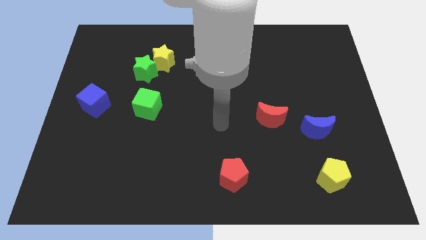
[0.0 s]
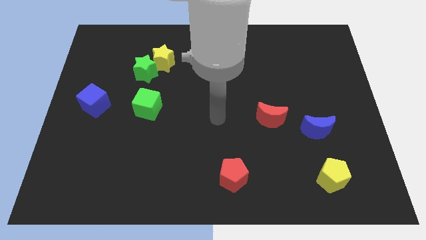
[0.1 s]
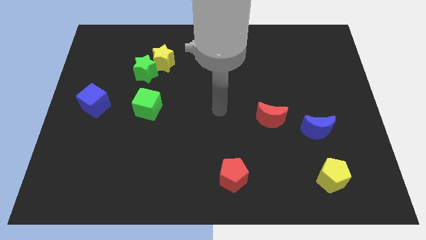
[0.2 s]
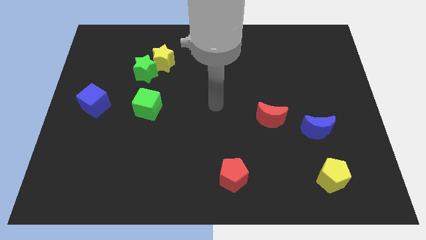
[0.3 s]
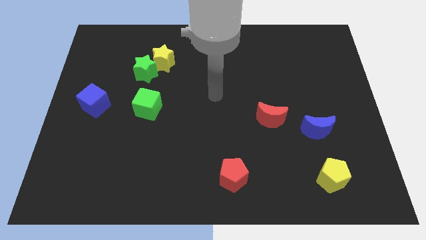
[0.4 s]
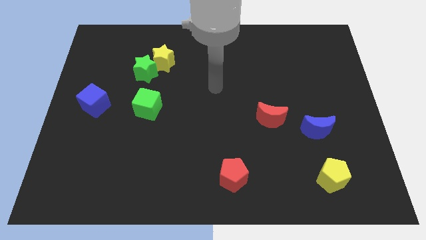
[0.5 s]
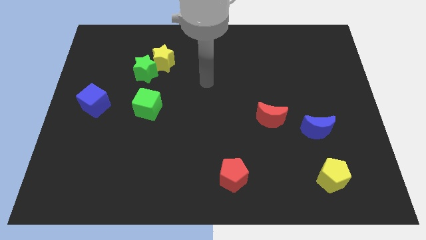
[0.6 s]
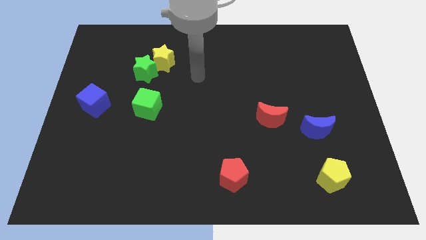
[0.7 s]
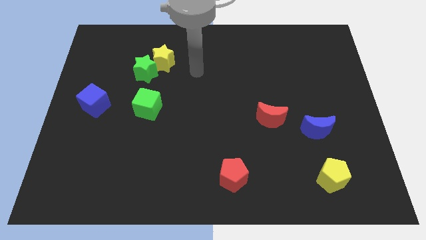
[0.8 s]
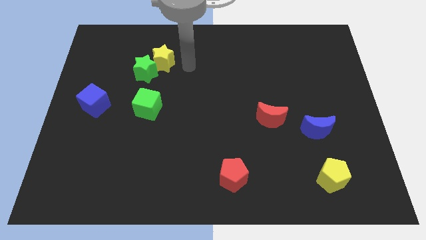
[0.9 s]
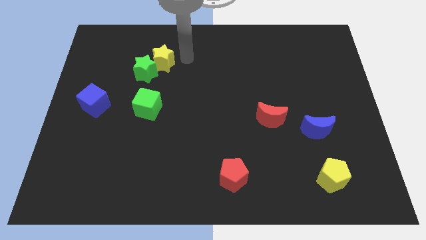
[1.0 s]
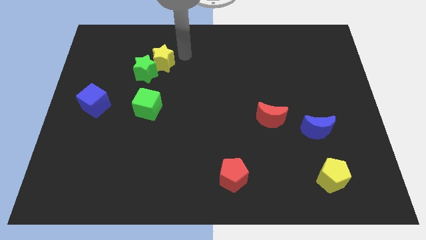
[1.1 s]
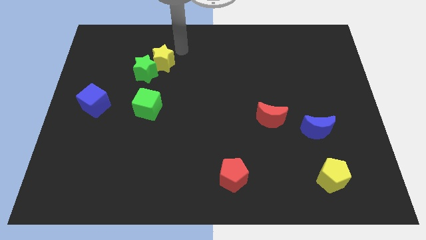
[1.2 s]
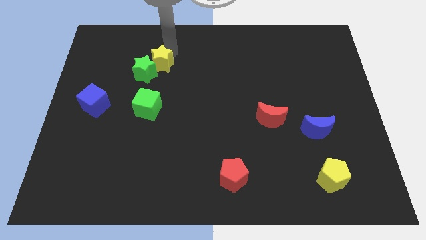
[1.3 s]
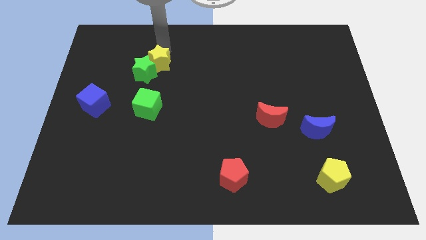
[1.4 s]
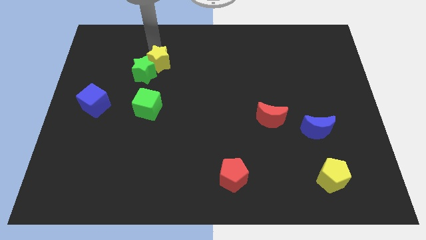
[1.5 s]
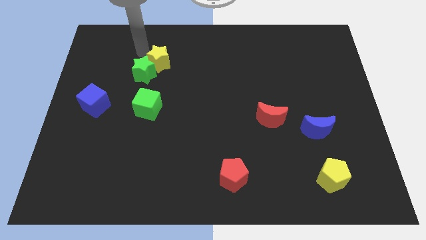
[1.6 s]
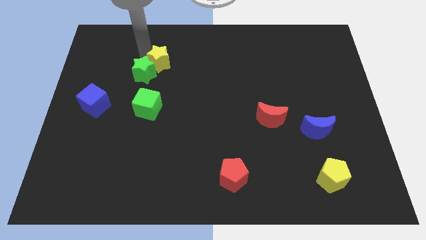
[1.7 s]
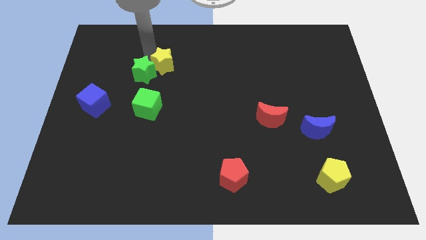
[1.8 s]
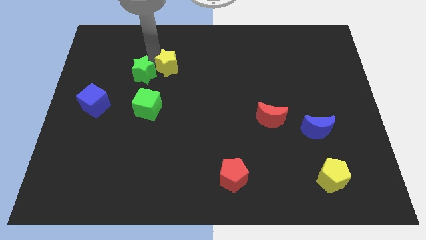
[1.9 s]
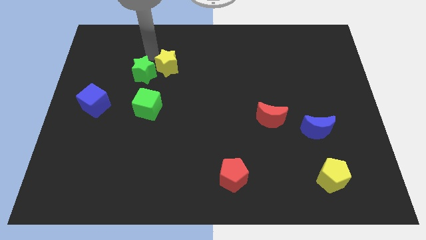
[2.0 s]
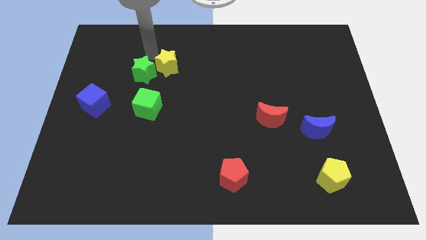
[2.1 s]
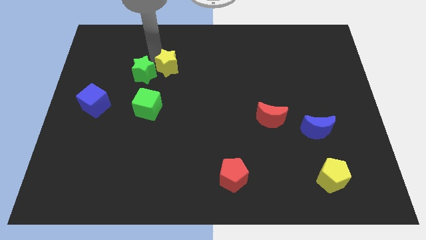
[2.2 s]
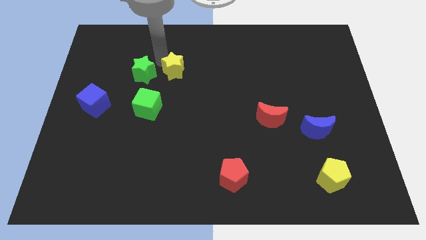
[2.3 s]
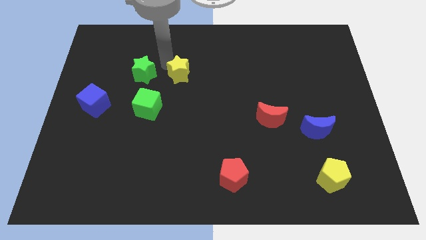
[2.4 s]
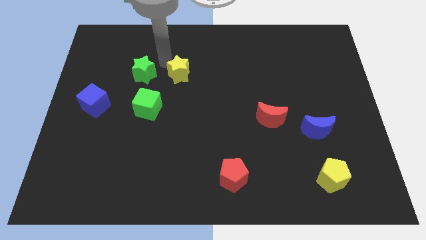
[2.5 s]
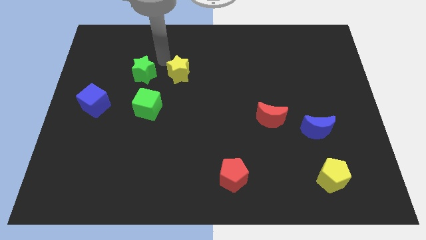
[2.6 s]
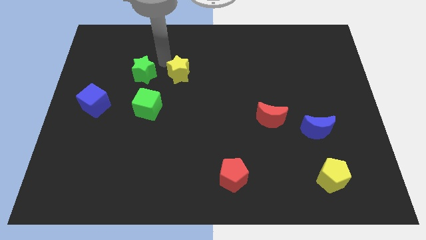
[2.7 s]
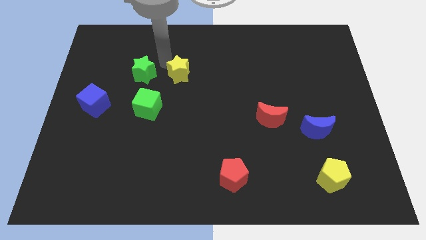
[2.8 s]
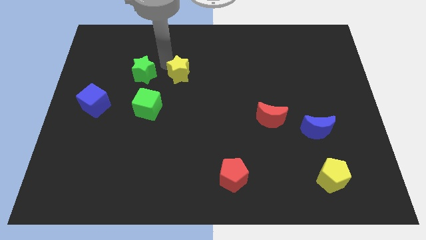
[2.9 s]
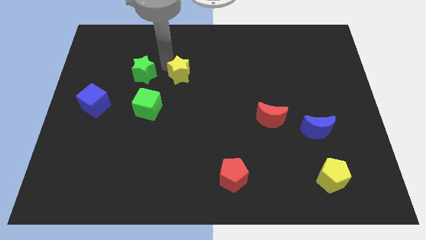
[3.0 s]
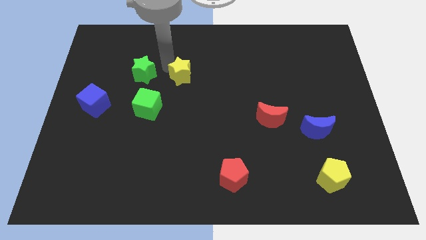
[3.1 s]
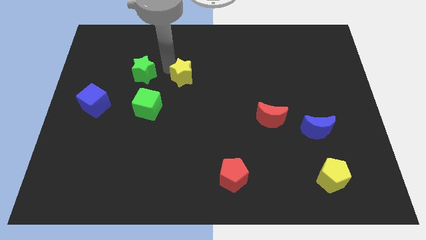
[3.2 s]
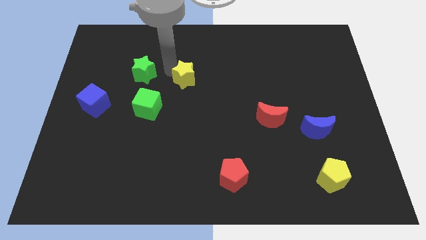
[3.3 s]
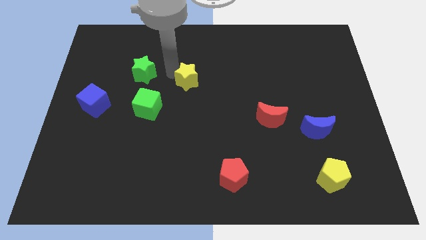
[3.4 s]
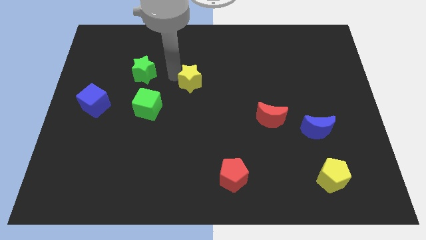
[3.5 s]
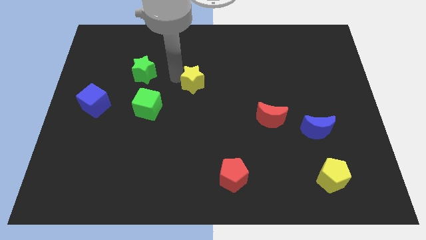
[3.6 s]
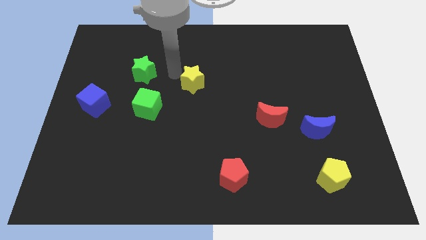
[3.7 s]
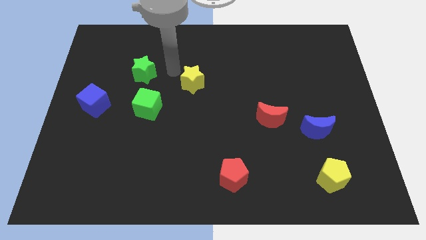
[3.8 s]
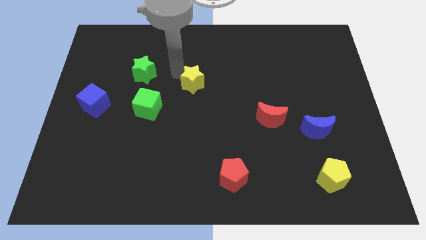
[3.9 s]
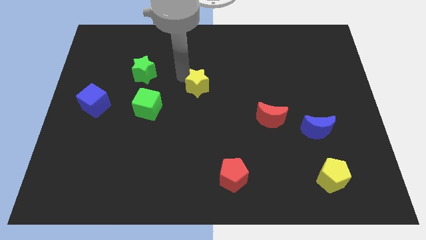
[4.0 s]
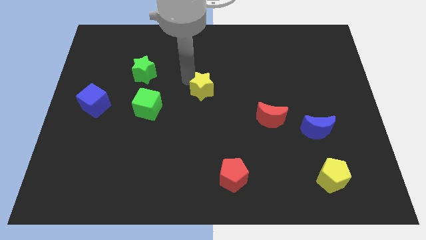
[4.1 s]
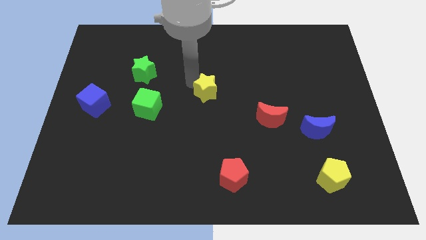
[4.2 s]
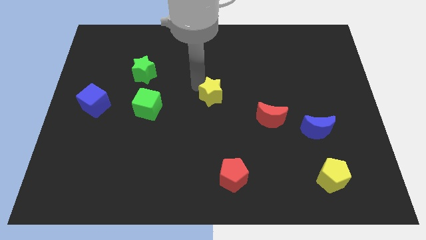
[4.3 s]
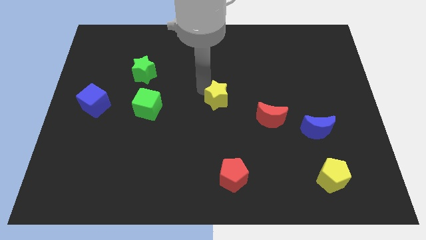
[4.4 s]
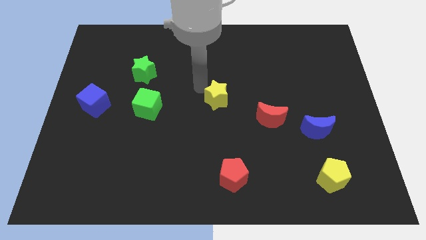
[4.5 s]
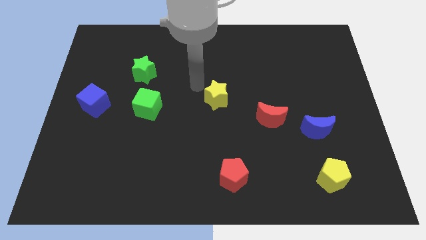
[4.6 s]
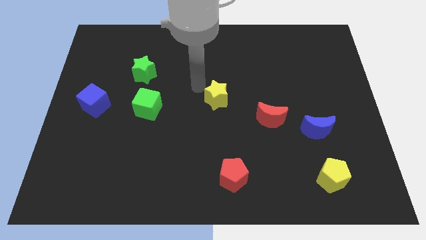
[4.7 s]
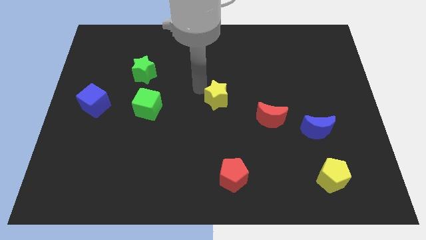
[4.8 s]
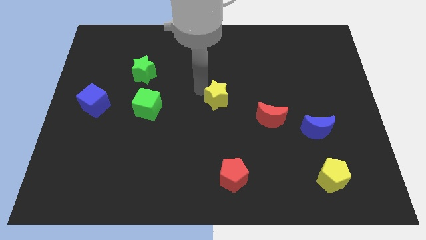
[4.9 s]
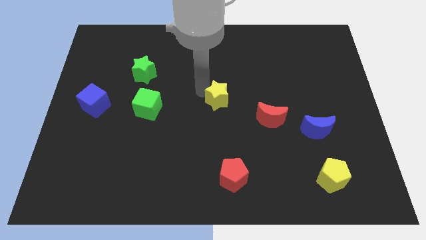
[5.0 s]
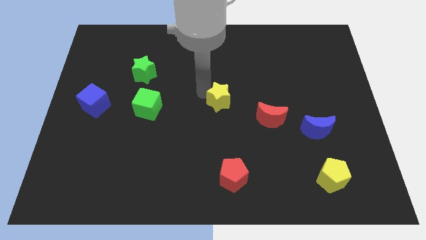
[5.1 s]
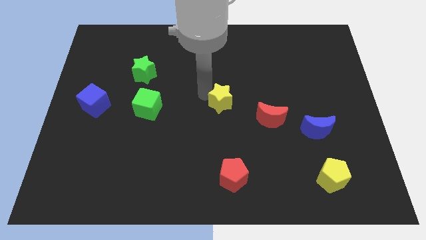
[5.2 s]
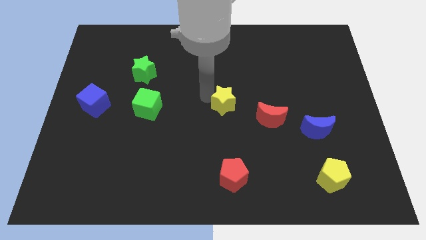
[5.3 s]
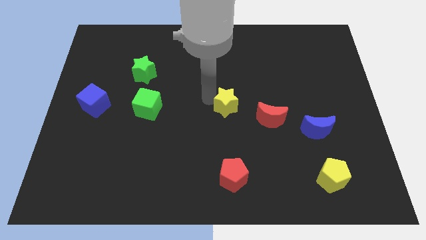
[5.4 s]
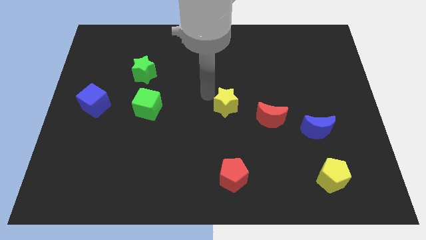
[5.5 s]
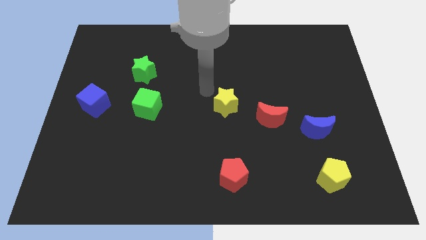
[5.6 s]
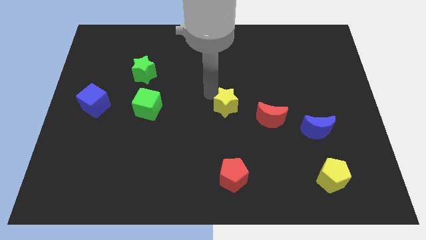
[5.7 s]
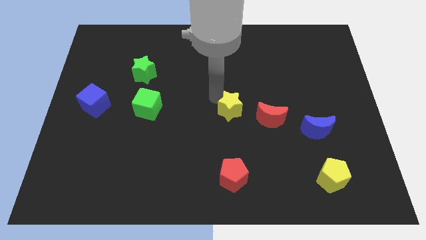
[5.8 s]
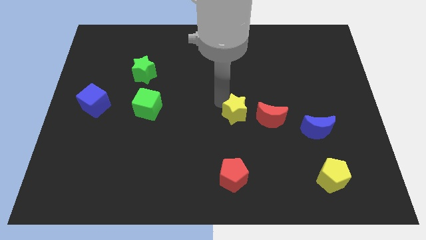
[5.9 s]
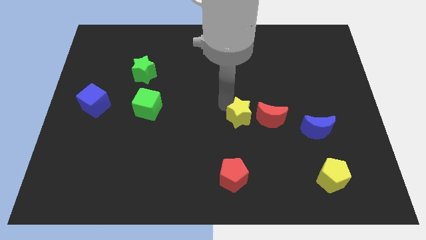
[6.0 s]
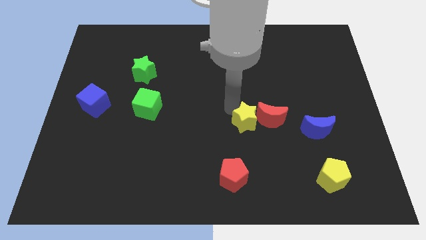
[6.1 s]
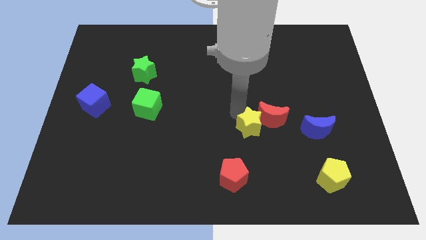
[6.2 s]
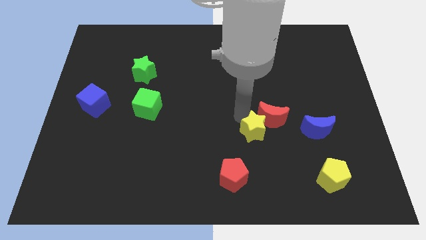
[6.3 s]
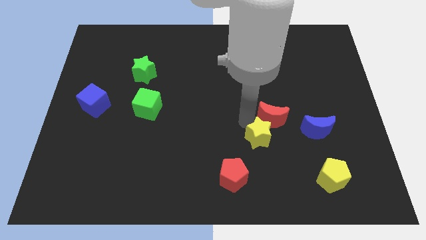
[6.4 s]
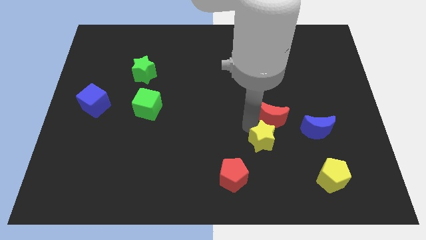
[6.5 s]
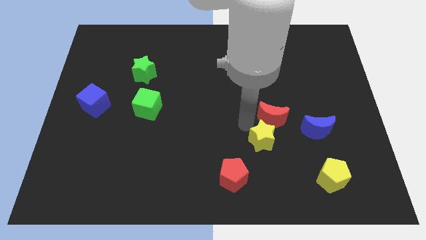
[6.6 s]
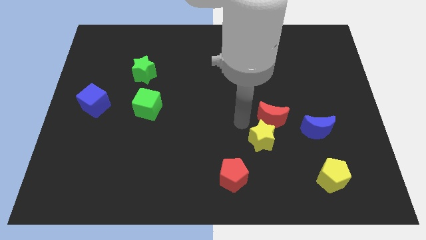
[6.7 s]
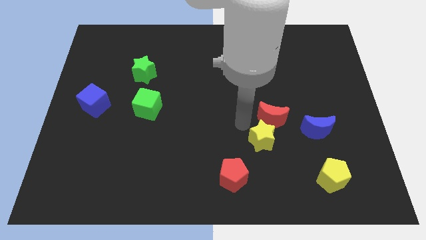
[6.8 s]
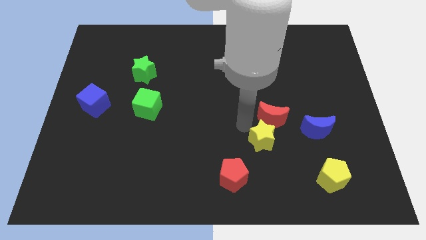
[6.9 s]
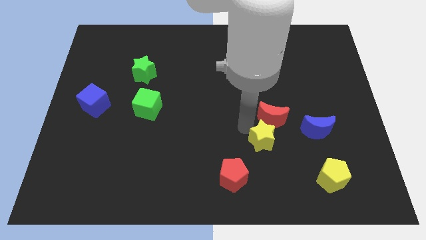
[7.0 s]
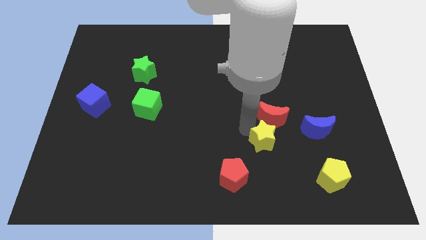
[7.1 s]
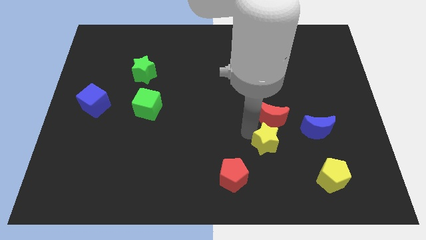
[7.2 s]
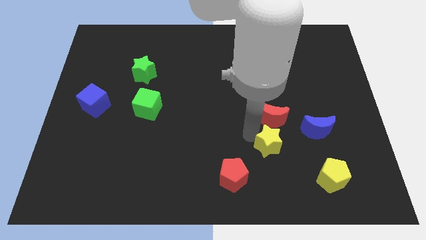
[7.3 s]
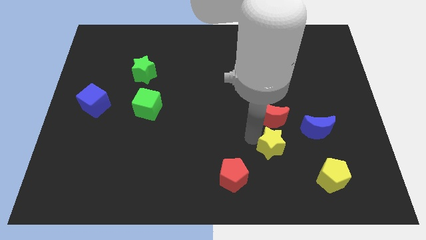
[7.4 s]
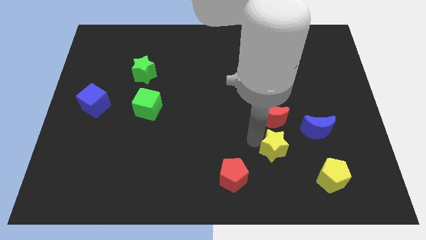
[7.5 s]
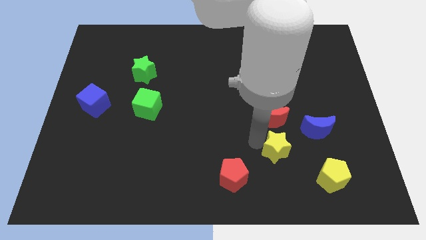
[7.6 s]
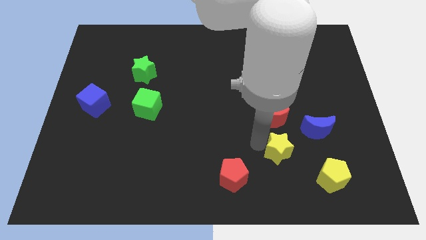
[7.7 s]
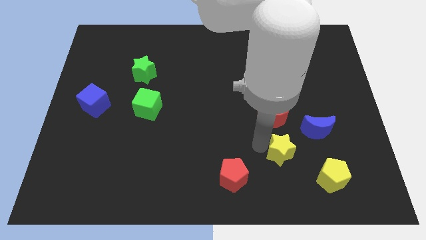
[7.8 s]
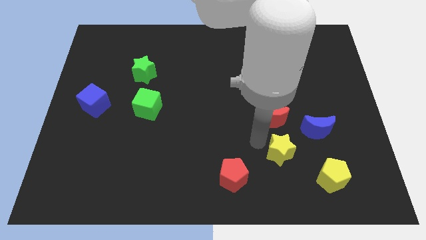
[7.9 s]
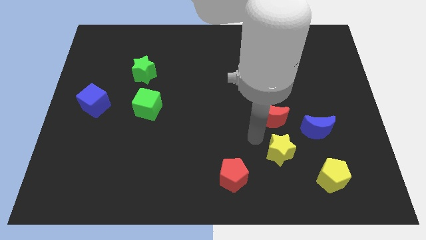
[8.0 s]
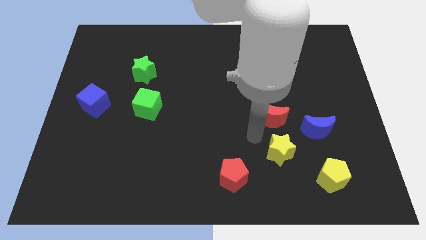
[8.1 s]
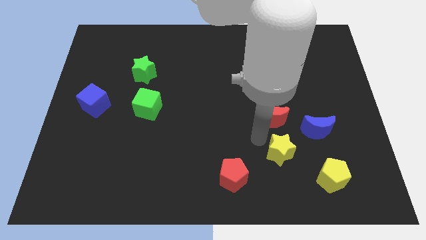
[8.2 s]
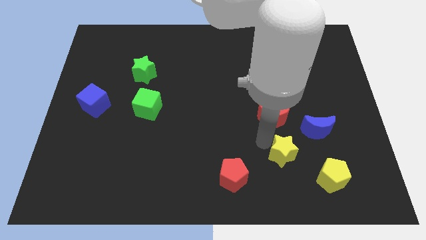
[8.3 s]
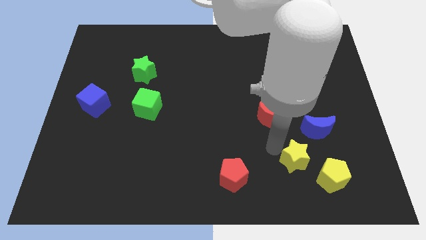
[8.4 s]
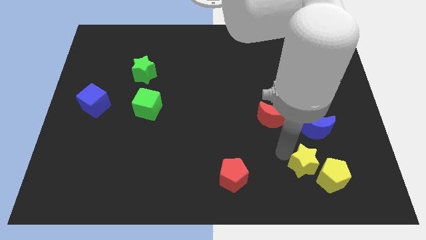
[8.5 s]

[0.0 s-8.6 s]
slide the yellow star next to the yellow pentagon
